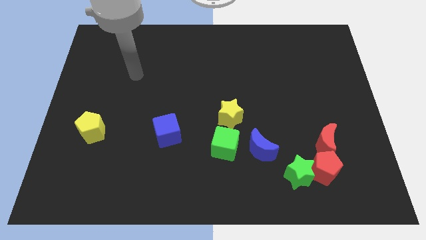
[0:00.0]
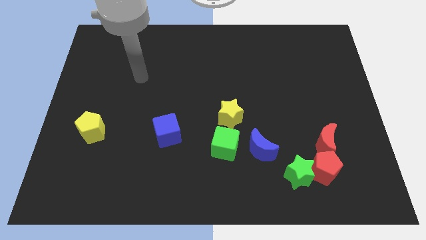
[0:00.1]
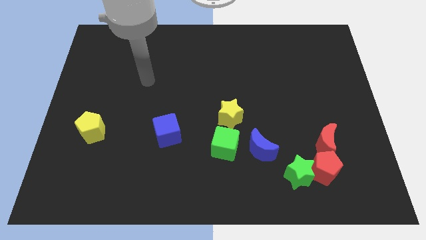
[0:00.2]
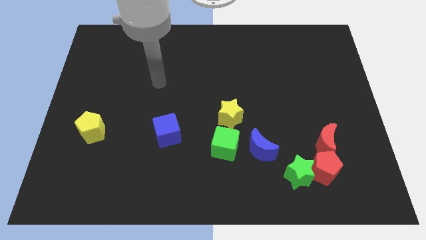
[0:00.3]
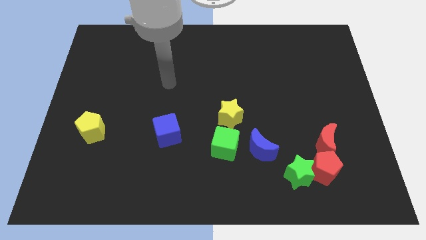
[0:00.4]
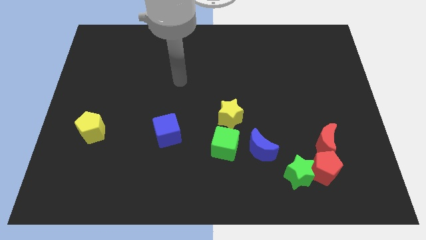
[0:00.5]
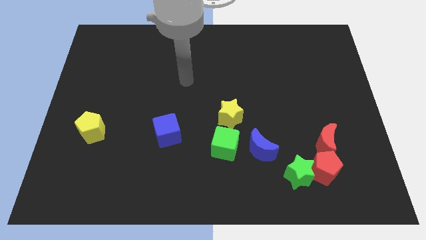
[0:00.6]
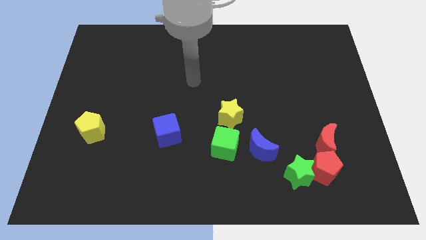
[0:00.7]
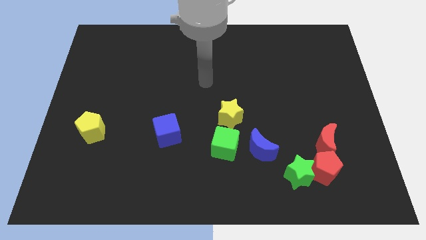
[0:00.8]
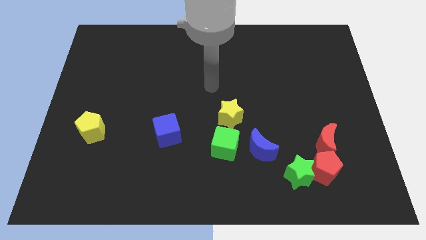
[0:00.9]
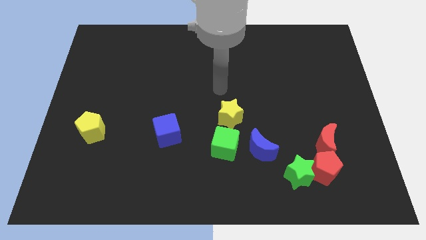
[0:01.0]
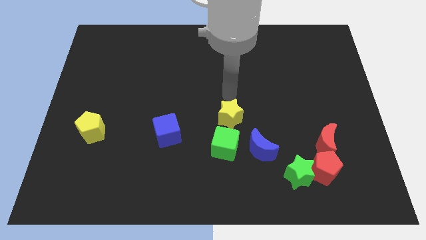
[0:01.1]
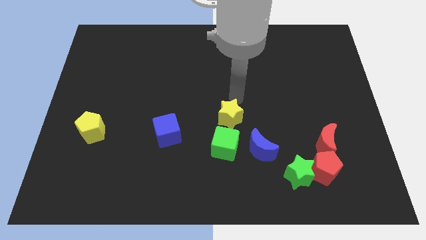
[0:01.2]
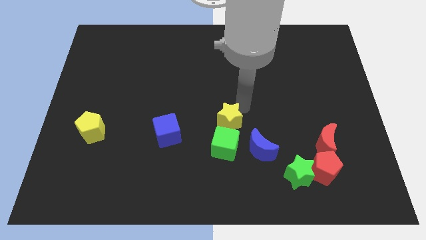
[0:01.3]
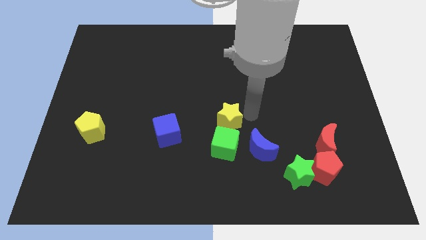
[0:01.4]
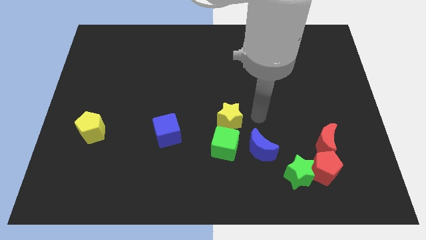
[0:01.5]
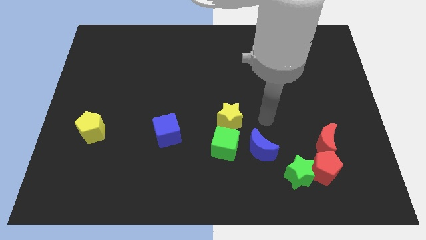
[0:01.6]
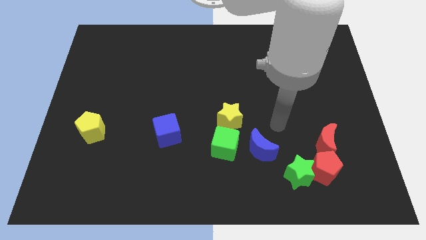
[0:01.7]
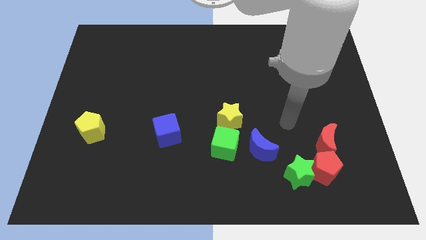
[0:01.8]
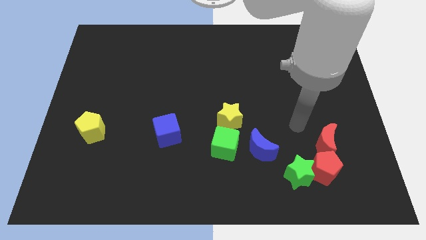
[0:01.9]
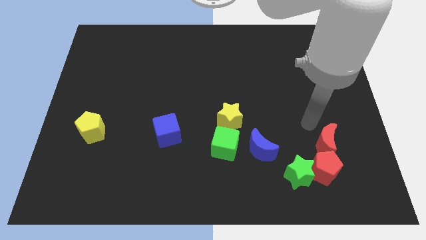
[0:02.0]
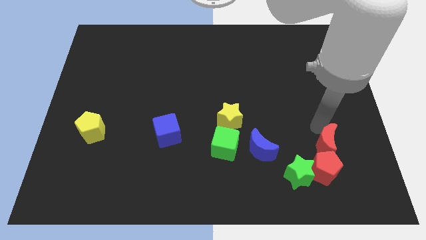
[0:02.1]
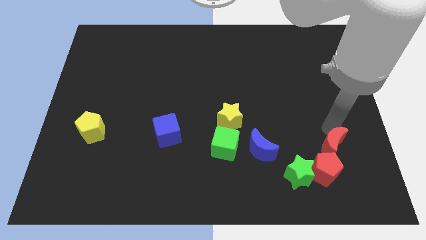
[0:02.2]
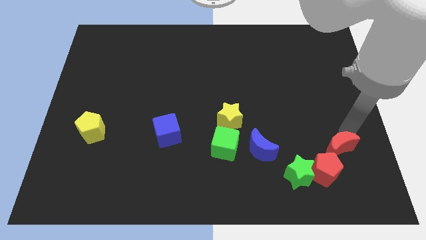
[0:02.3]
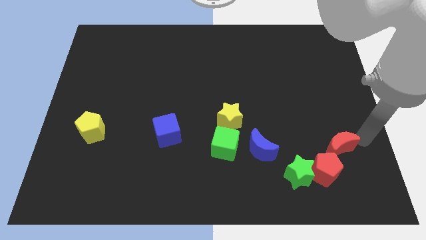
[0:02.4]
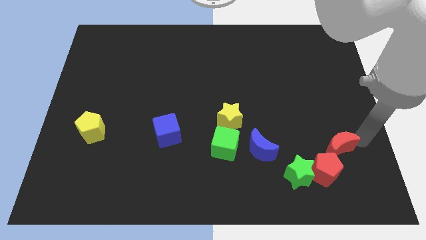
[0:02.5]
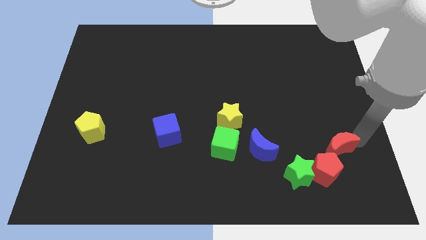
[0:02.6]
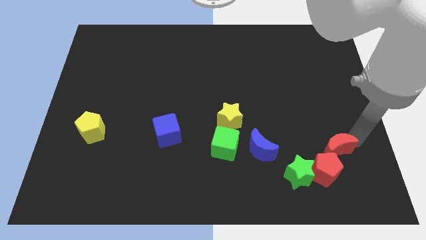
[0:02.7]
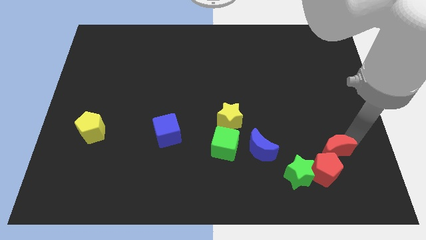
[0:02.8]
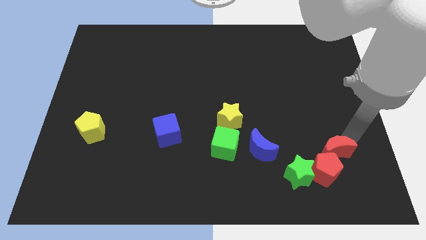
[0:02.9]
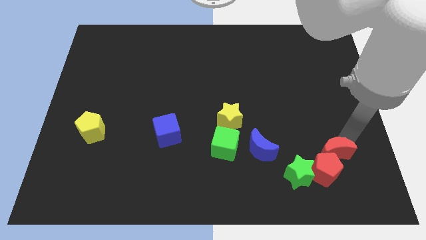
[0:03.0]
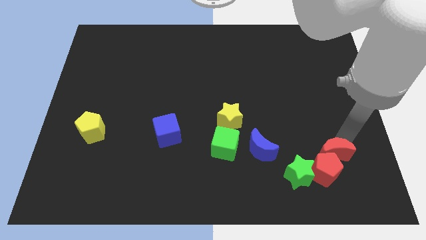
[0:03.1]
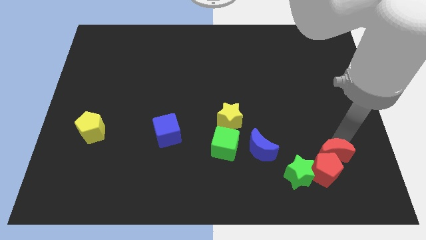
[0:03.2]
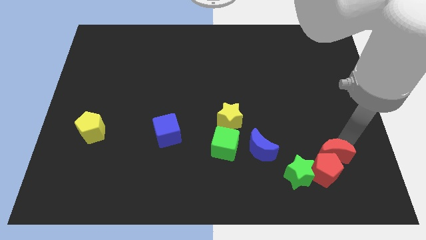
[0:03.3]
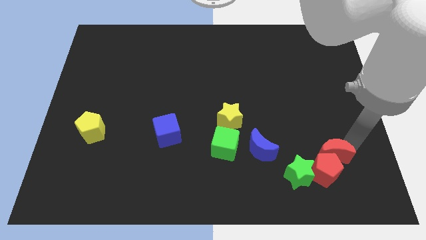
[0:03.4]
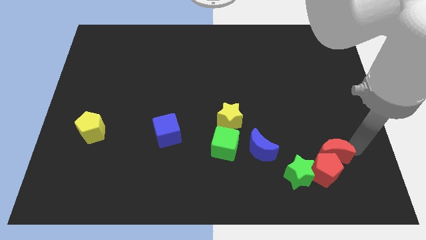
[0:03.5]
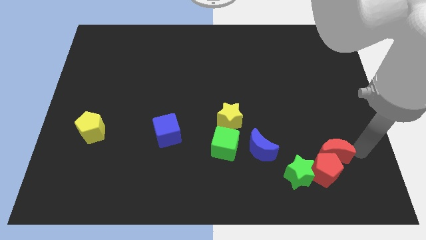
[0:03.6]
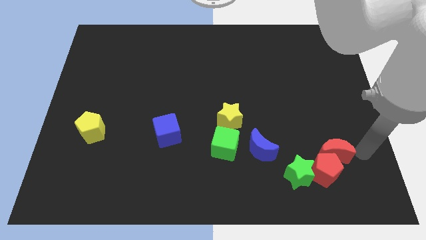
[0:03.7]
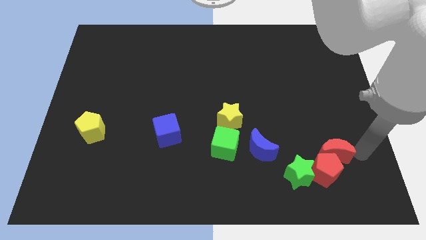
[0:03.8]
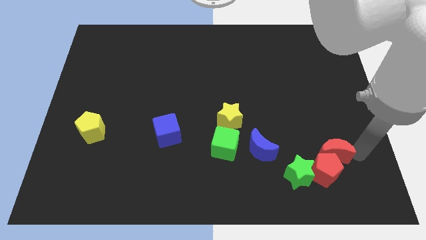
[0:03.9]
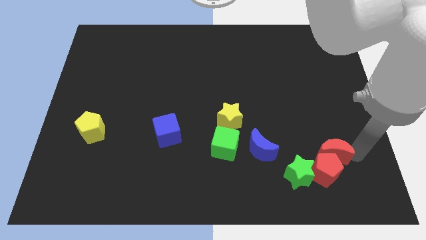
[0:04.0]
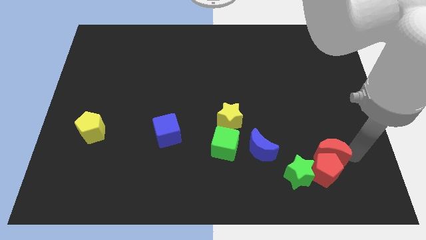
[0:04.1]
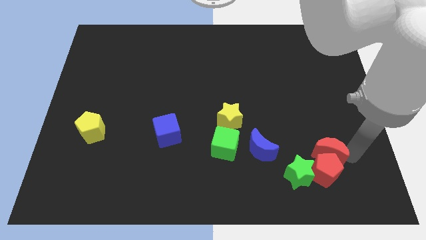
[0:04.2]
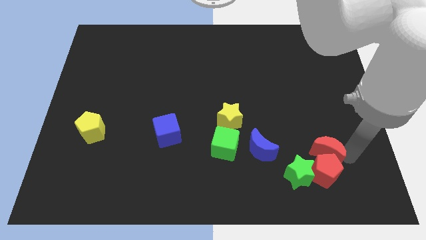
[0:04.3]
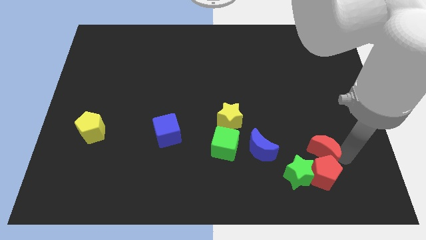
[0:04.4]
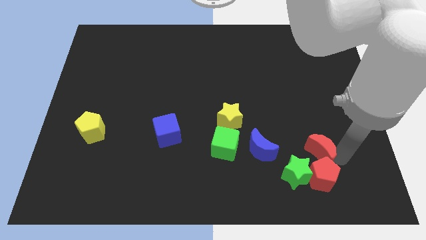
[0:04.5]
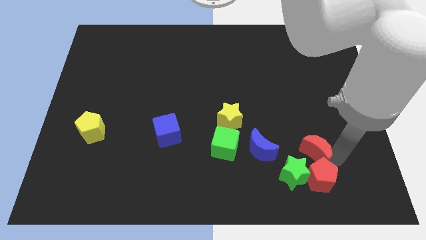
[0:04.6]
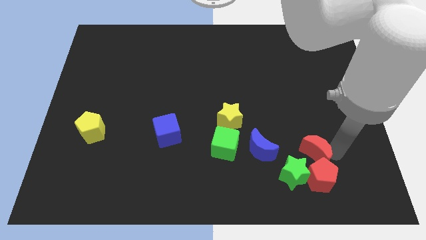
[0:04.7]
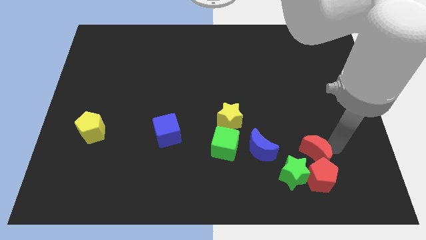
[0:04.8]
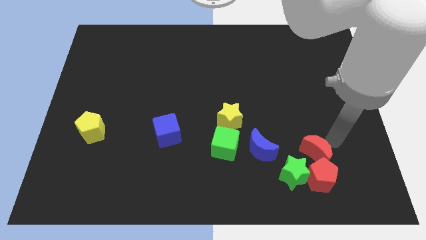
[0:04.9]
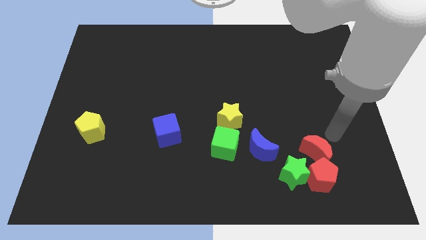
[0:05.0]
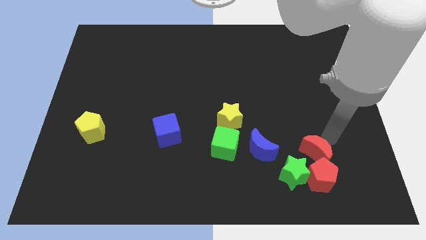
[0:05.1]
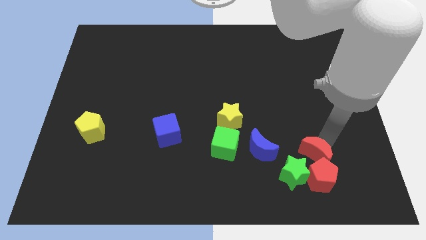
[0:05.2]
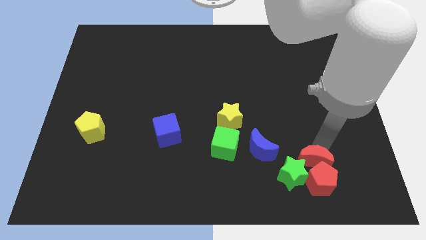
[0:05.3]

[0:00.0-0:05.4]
put the red moon towards the green star

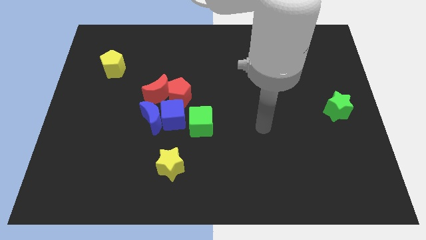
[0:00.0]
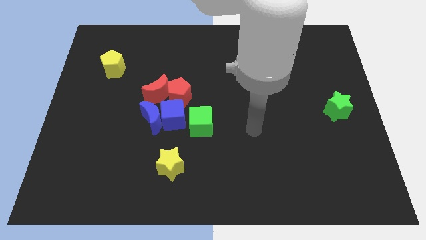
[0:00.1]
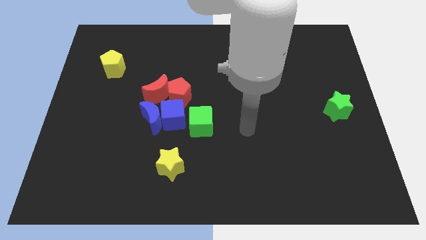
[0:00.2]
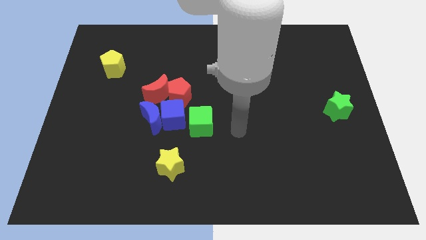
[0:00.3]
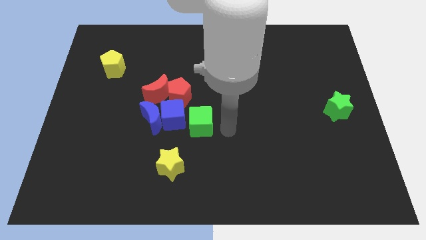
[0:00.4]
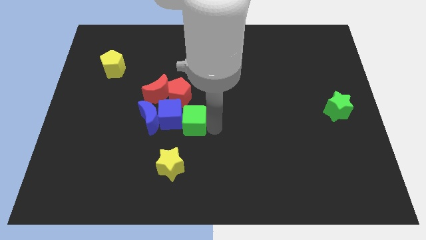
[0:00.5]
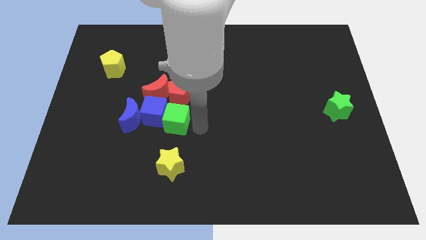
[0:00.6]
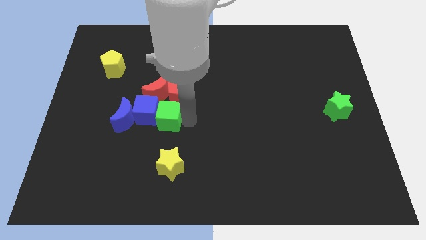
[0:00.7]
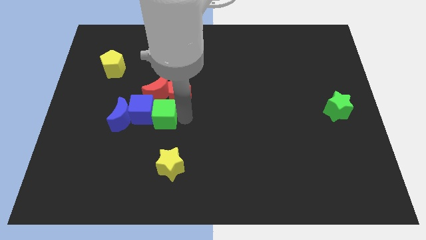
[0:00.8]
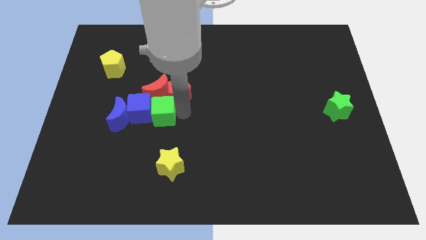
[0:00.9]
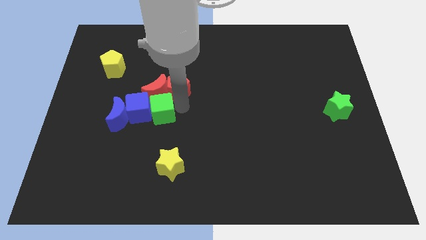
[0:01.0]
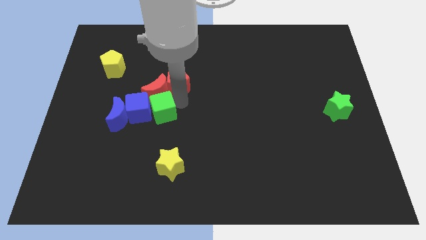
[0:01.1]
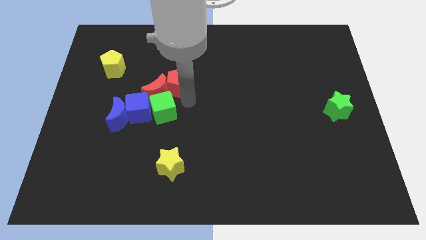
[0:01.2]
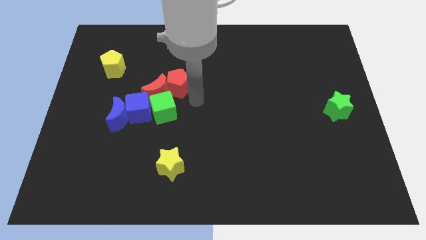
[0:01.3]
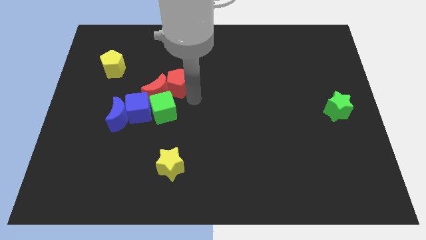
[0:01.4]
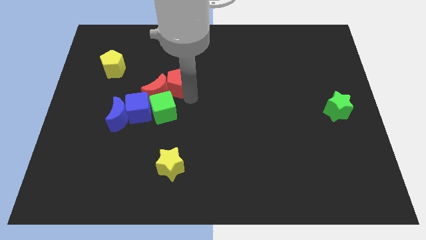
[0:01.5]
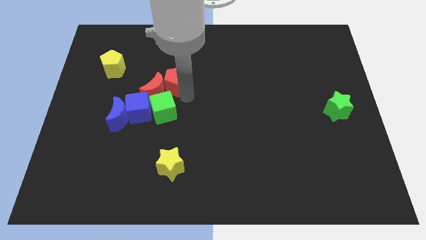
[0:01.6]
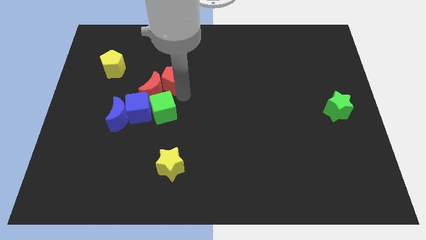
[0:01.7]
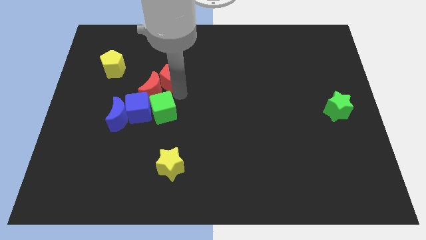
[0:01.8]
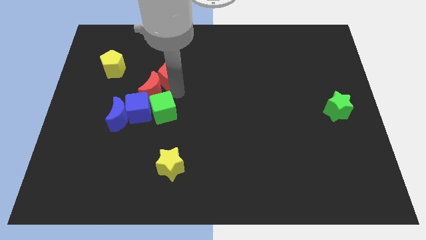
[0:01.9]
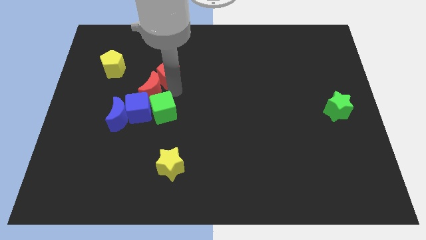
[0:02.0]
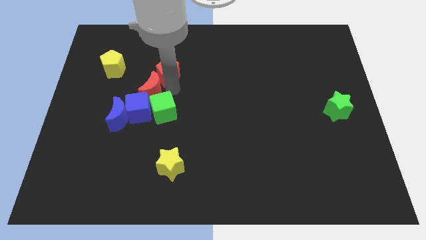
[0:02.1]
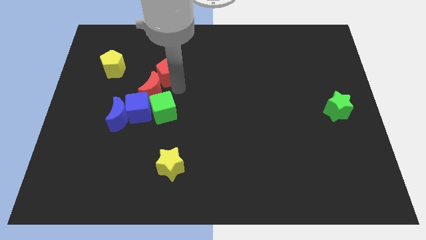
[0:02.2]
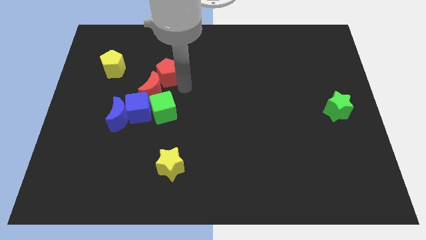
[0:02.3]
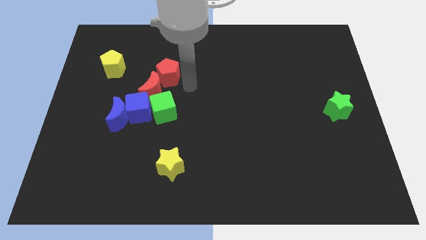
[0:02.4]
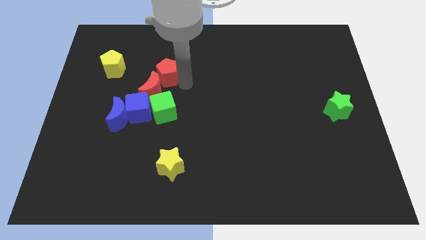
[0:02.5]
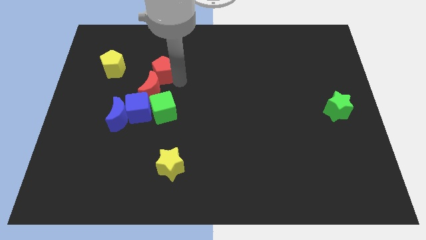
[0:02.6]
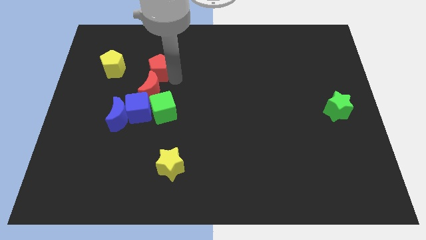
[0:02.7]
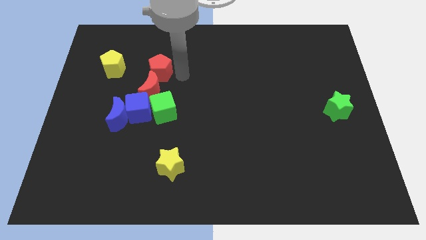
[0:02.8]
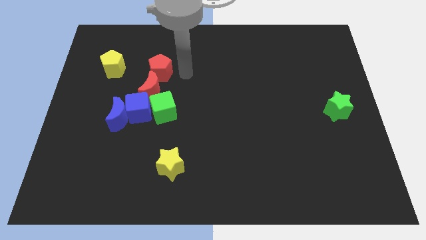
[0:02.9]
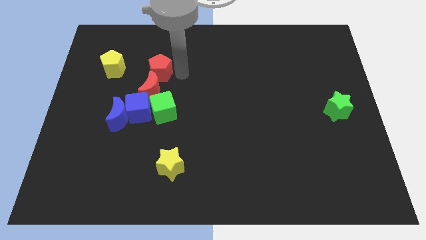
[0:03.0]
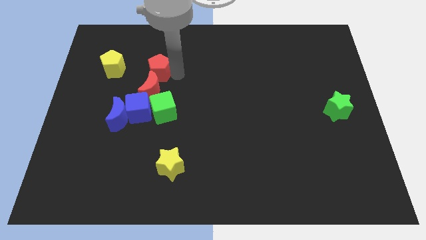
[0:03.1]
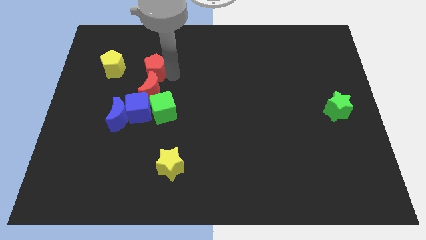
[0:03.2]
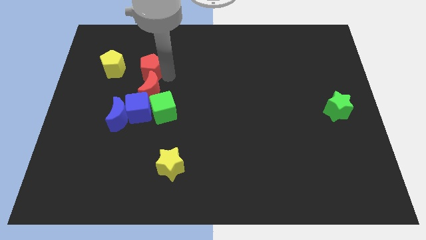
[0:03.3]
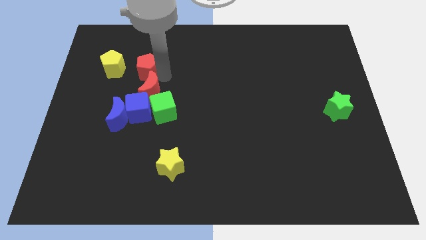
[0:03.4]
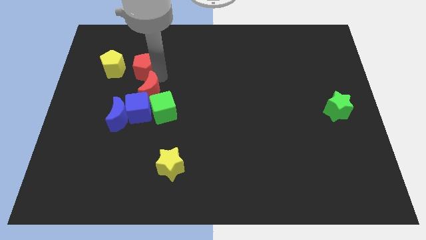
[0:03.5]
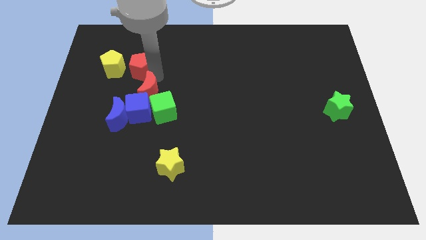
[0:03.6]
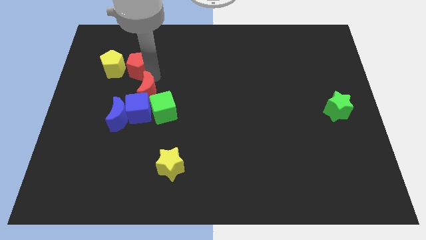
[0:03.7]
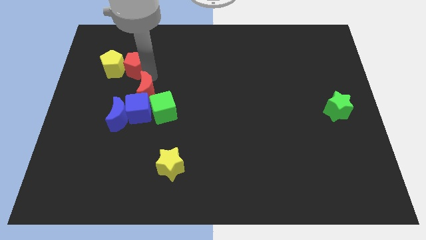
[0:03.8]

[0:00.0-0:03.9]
put the red pentagon next to the yellow pentagon
